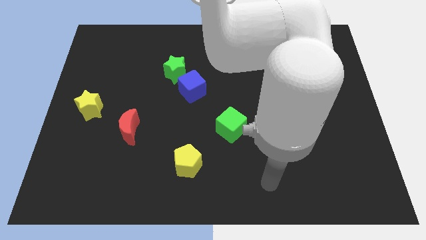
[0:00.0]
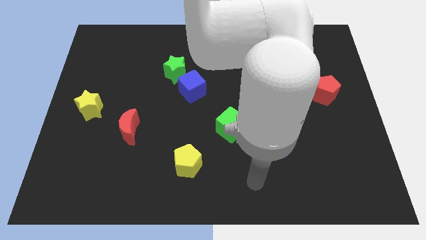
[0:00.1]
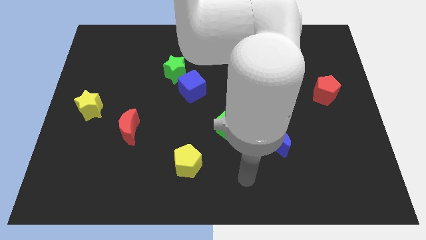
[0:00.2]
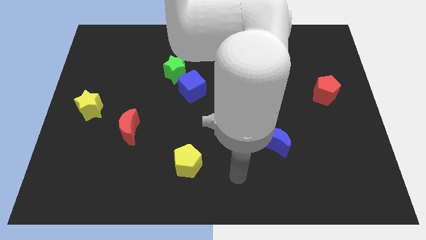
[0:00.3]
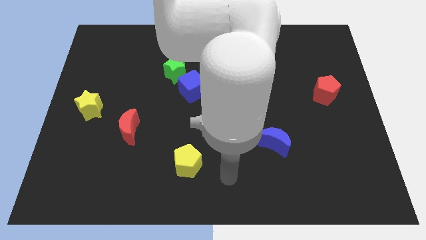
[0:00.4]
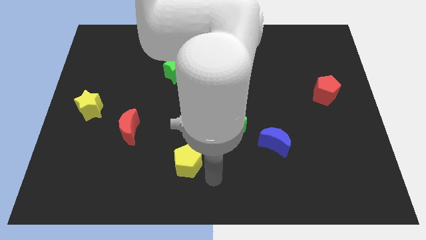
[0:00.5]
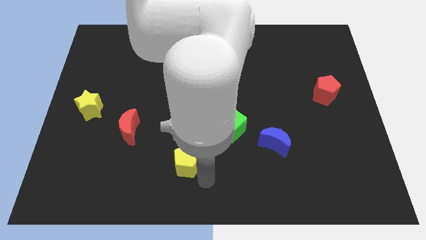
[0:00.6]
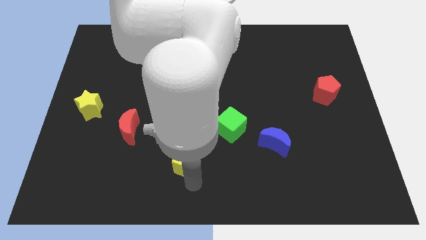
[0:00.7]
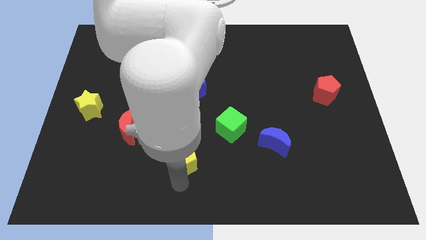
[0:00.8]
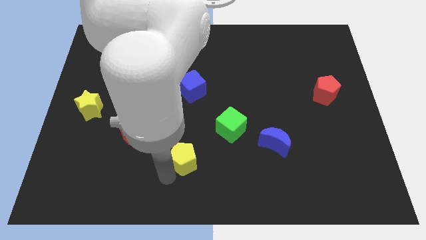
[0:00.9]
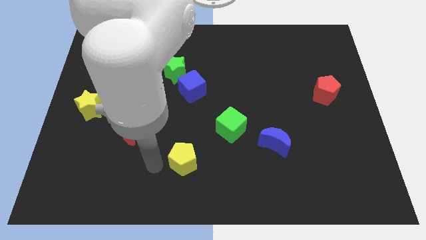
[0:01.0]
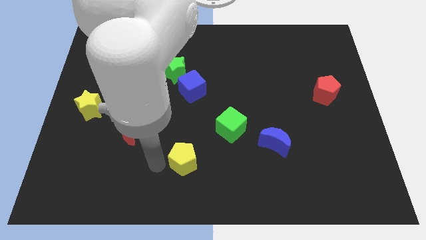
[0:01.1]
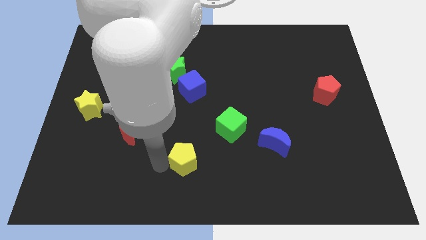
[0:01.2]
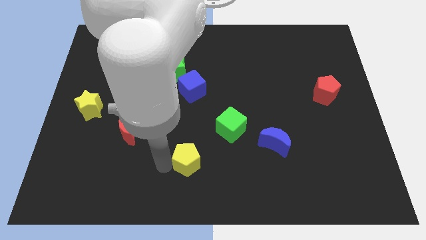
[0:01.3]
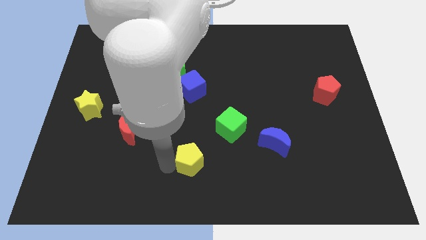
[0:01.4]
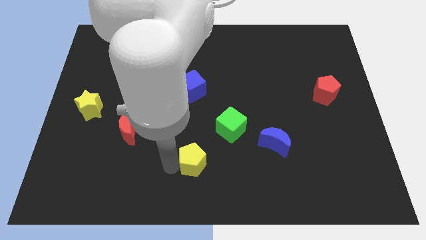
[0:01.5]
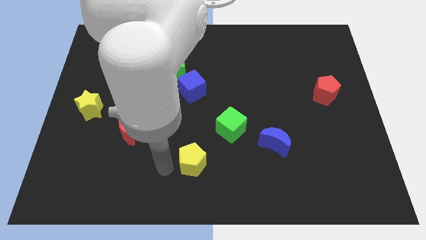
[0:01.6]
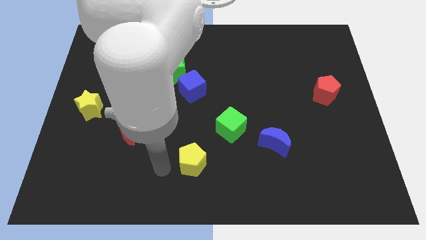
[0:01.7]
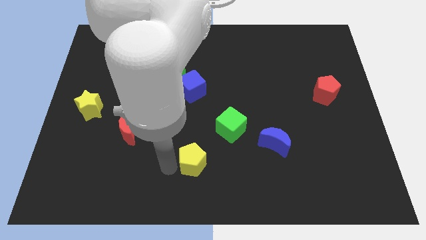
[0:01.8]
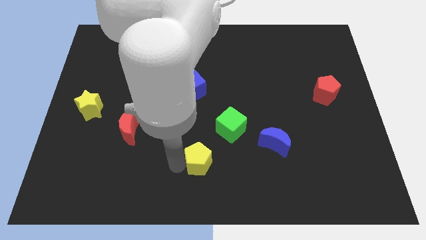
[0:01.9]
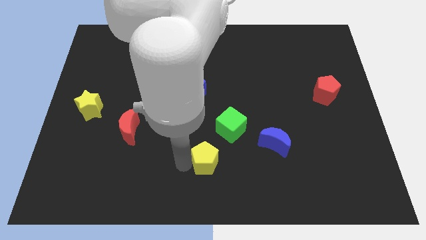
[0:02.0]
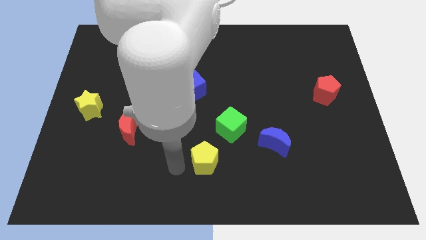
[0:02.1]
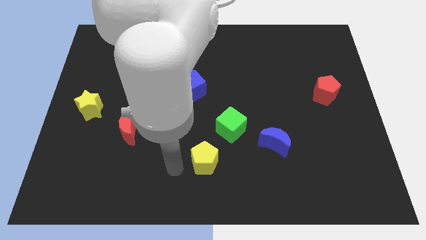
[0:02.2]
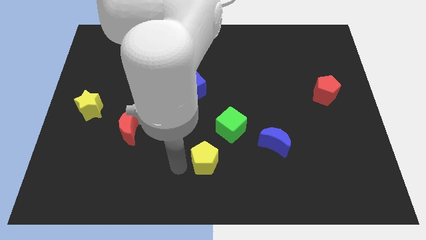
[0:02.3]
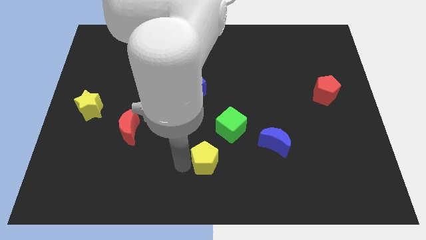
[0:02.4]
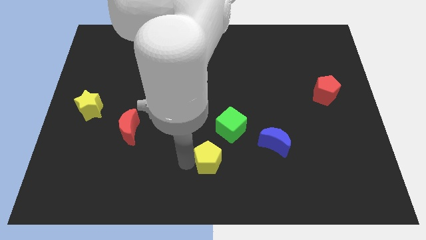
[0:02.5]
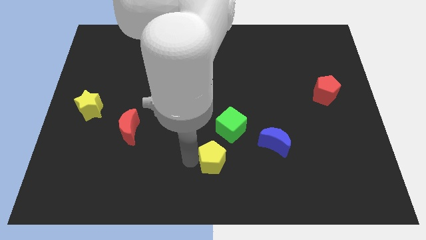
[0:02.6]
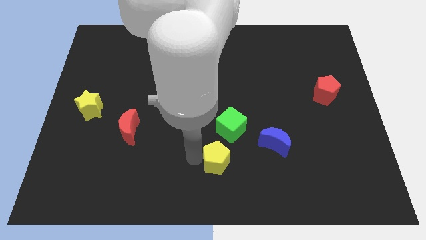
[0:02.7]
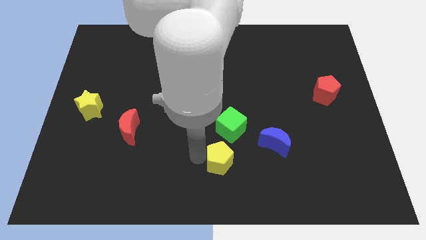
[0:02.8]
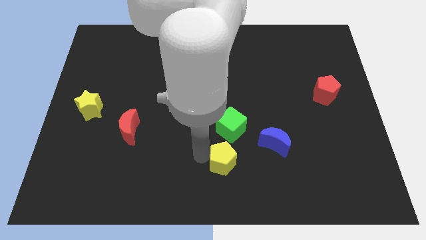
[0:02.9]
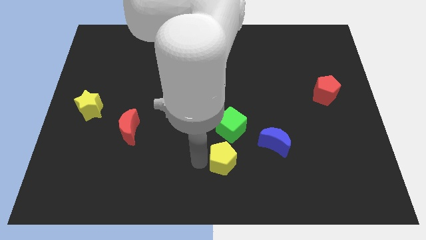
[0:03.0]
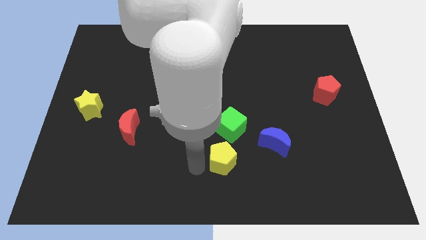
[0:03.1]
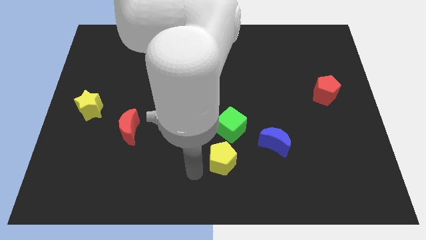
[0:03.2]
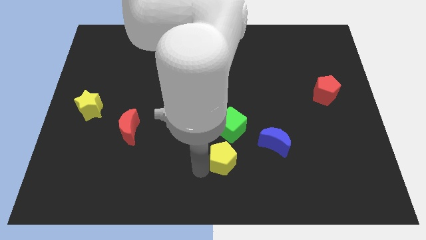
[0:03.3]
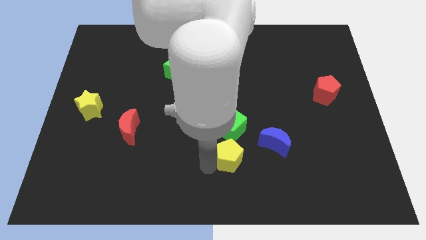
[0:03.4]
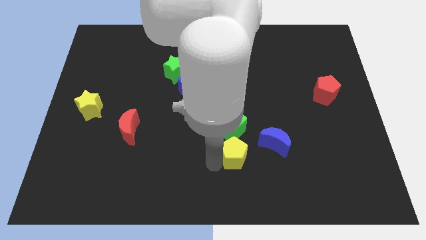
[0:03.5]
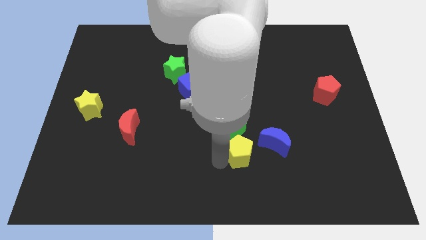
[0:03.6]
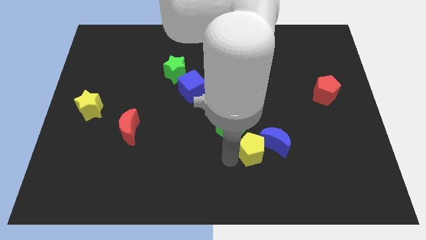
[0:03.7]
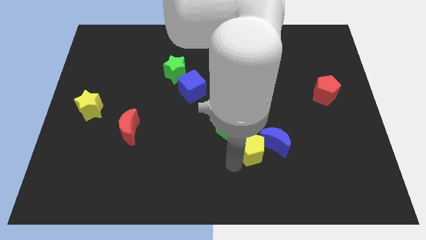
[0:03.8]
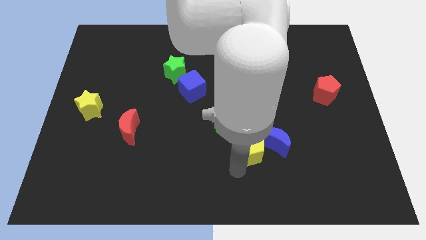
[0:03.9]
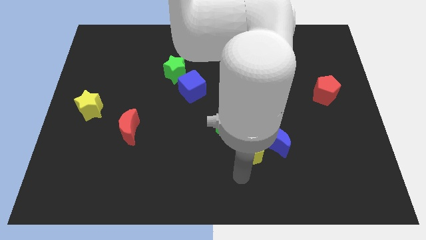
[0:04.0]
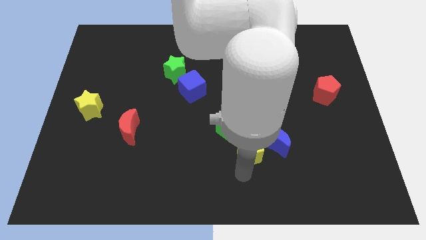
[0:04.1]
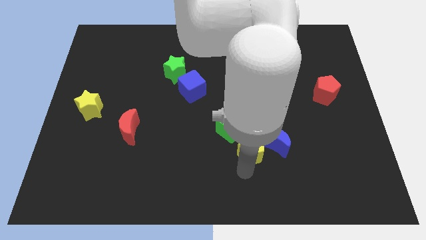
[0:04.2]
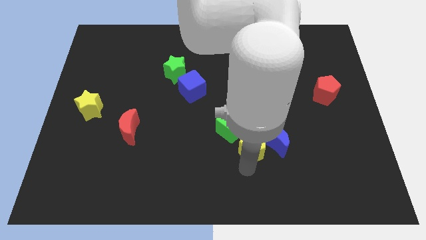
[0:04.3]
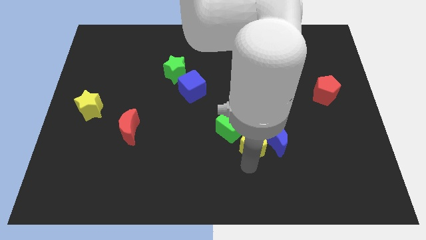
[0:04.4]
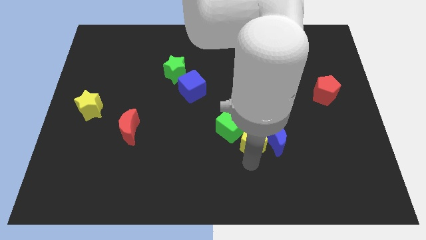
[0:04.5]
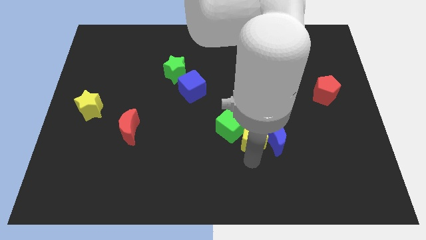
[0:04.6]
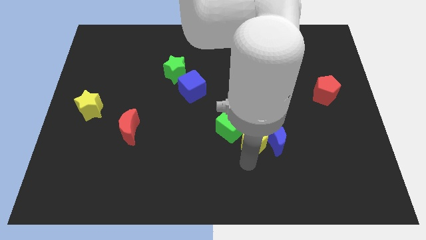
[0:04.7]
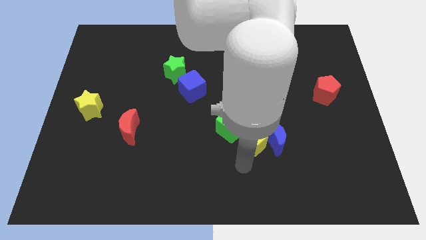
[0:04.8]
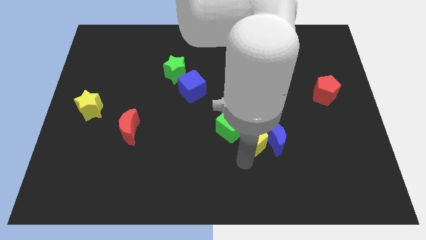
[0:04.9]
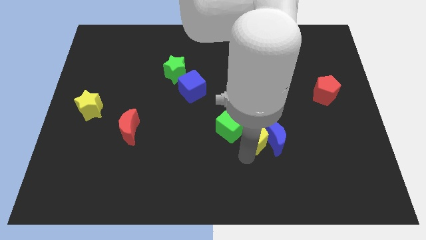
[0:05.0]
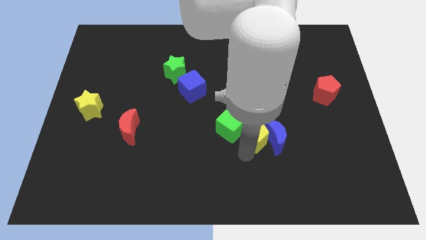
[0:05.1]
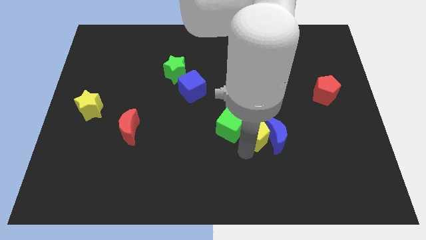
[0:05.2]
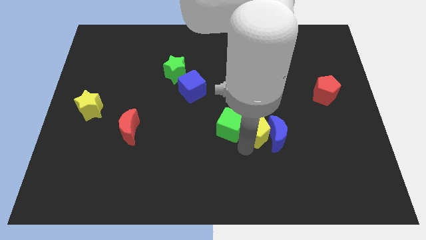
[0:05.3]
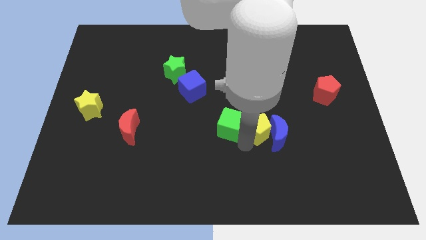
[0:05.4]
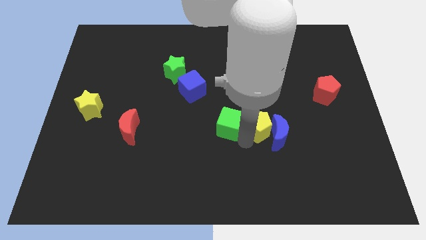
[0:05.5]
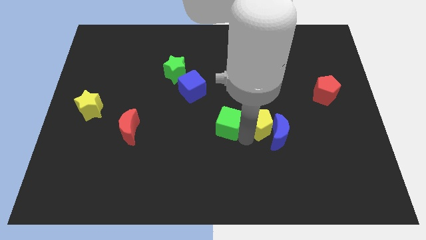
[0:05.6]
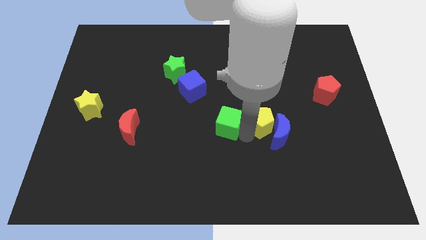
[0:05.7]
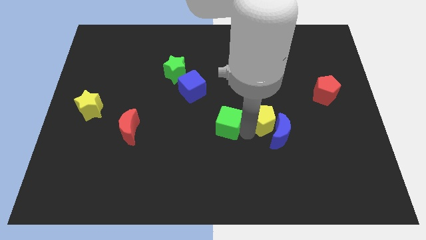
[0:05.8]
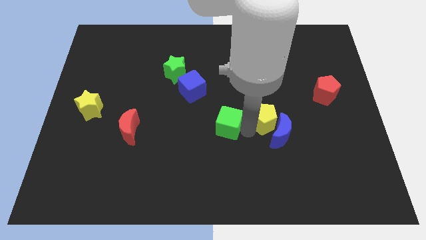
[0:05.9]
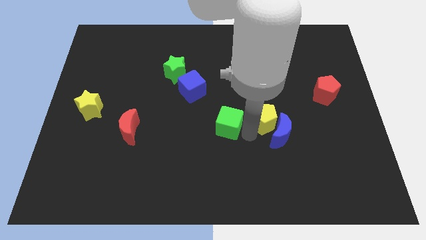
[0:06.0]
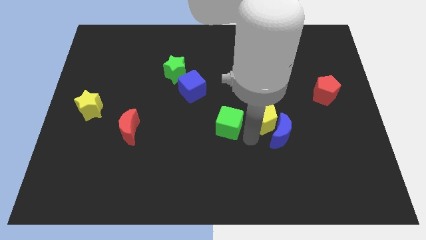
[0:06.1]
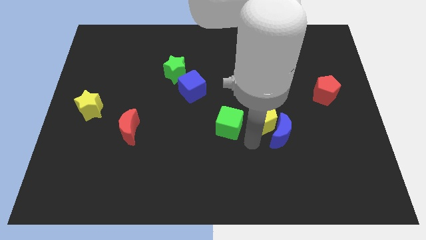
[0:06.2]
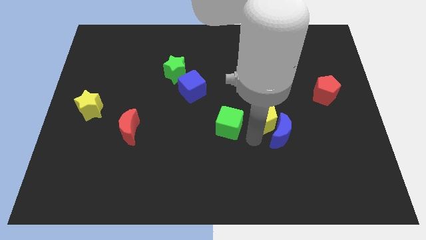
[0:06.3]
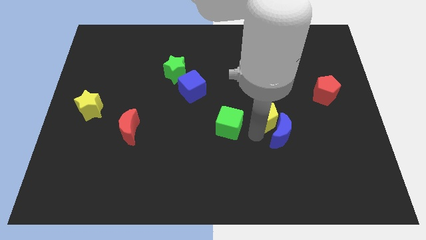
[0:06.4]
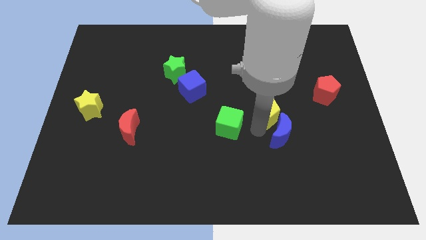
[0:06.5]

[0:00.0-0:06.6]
move the yellow pentagon up and to the right diagonally

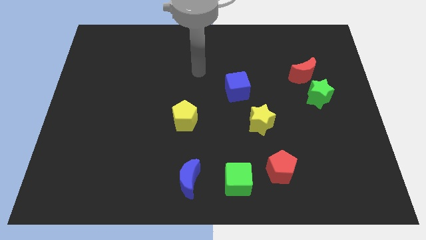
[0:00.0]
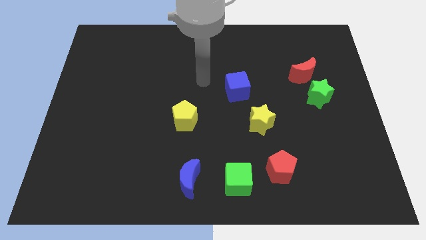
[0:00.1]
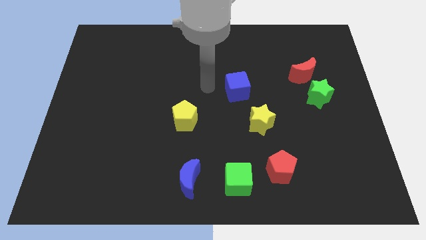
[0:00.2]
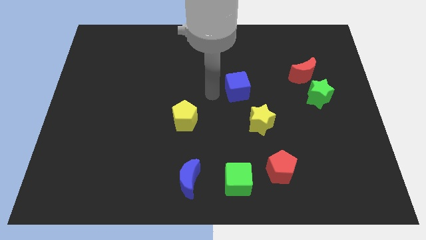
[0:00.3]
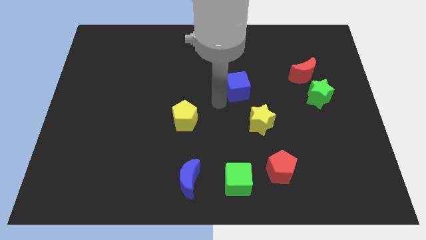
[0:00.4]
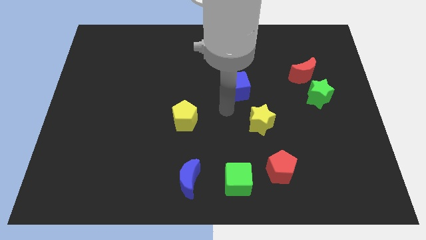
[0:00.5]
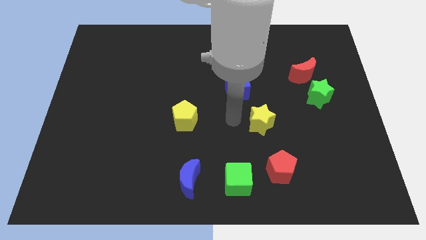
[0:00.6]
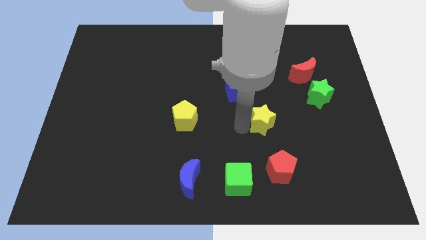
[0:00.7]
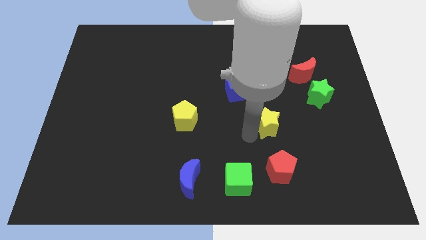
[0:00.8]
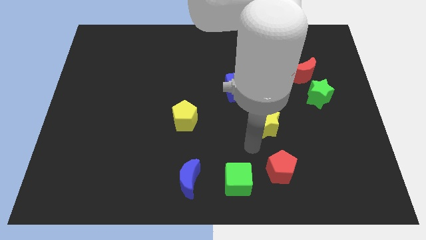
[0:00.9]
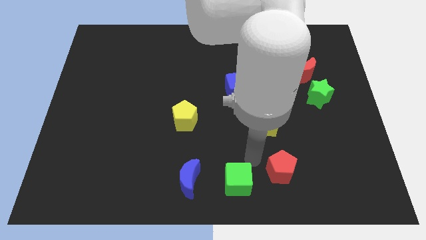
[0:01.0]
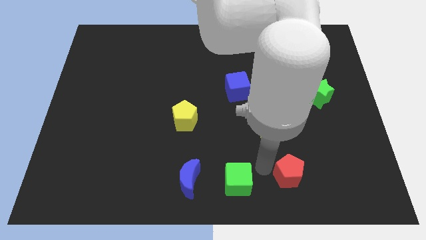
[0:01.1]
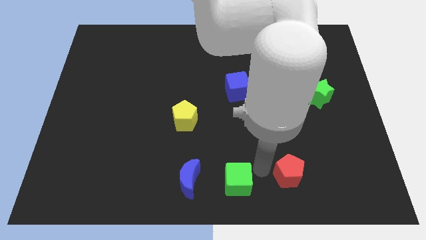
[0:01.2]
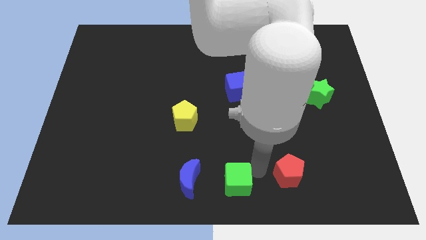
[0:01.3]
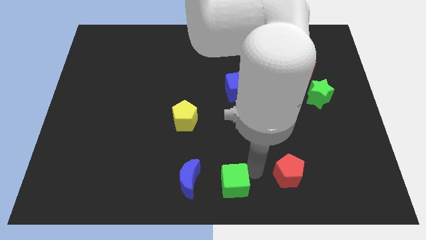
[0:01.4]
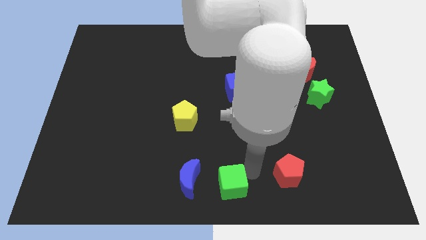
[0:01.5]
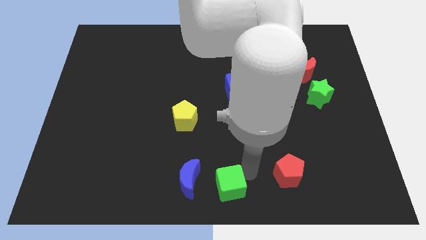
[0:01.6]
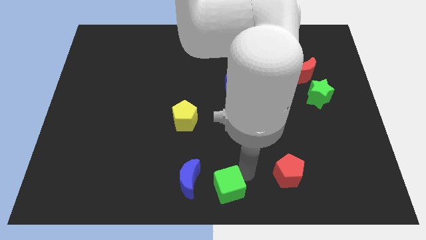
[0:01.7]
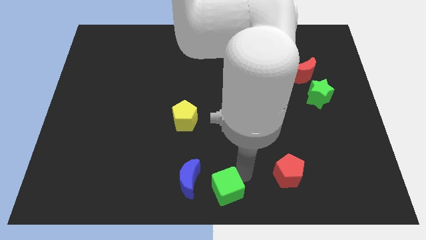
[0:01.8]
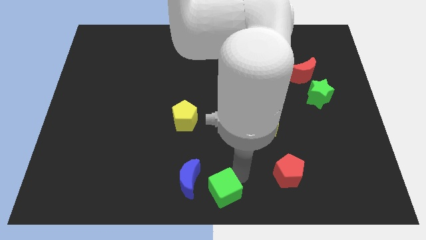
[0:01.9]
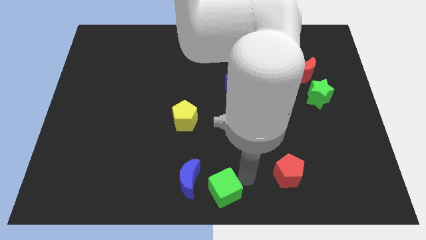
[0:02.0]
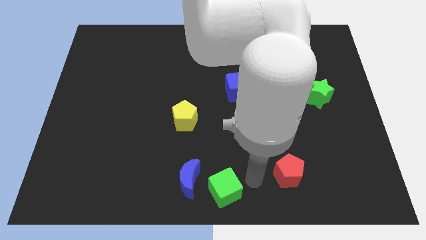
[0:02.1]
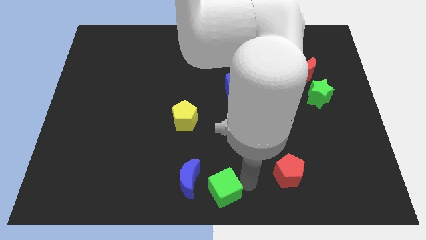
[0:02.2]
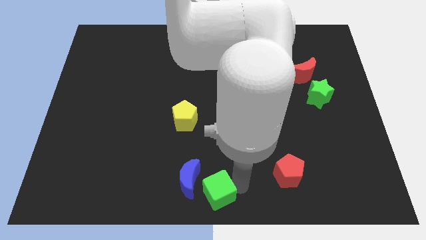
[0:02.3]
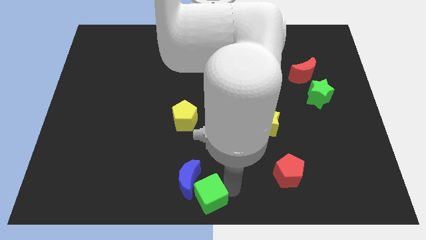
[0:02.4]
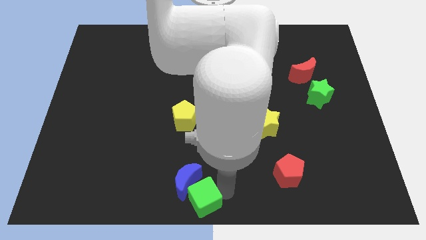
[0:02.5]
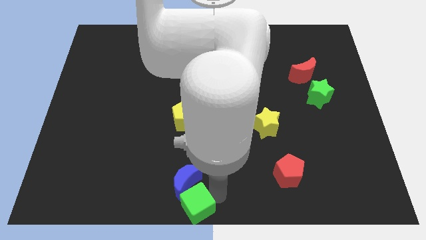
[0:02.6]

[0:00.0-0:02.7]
slide the green cube a little to the left
